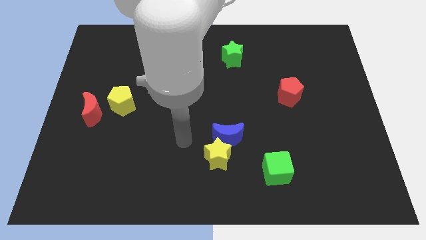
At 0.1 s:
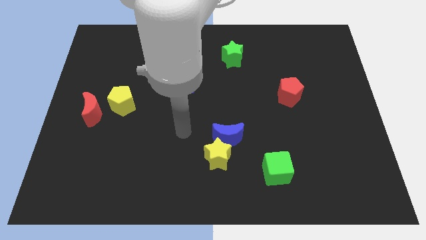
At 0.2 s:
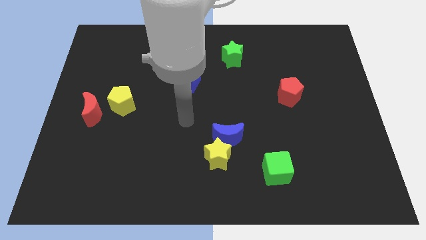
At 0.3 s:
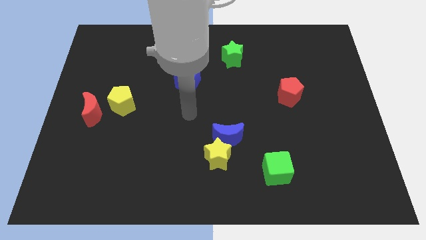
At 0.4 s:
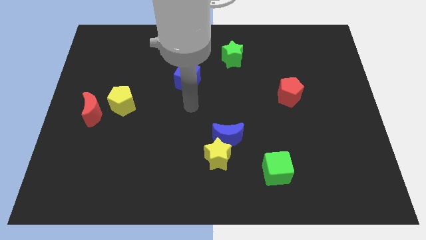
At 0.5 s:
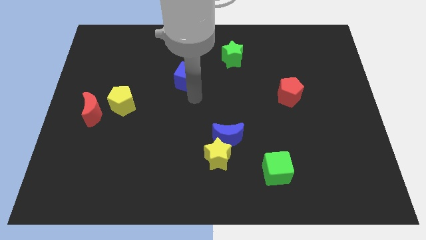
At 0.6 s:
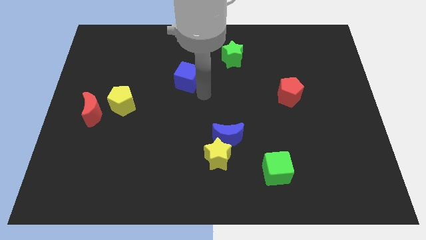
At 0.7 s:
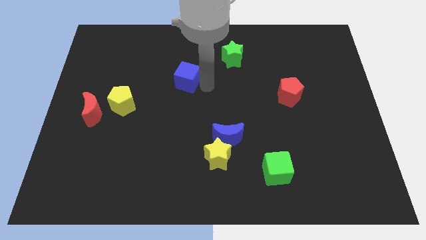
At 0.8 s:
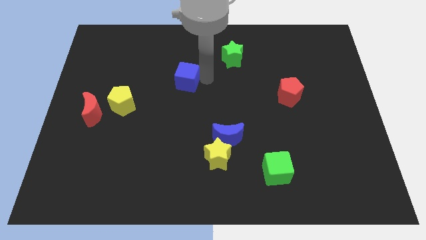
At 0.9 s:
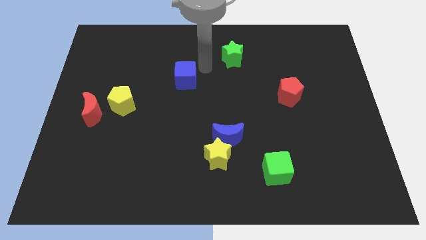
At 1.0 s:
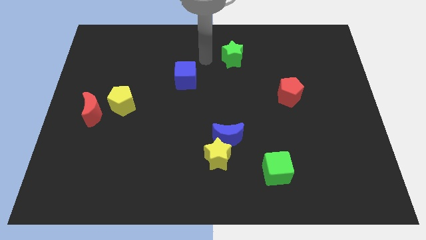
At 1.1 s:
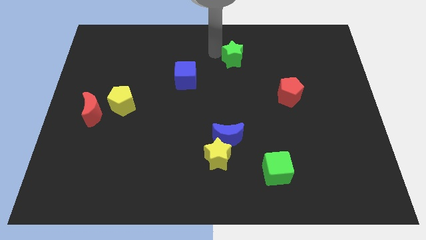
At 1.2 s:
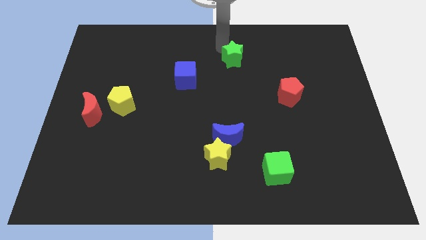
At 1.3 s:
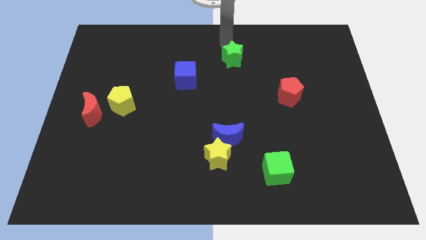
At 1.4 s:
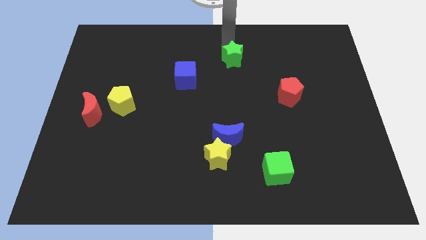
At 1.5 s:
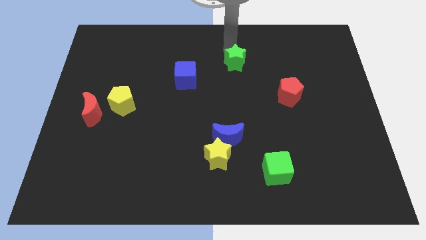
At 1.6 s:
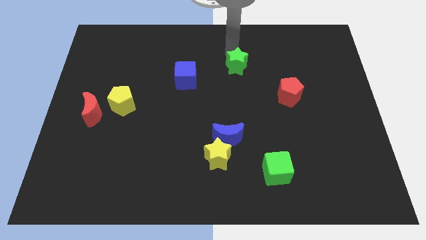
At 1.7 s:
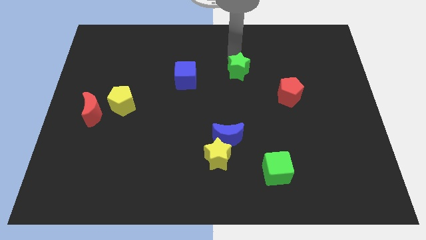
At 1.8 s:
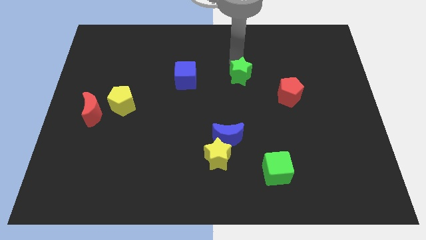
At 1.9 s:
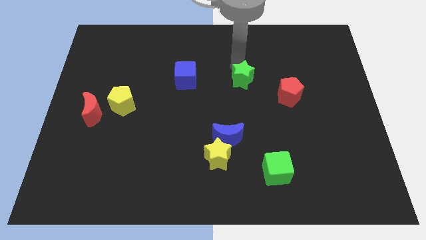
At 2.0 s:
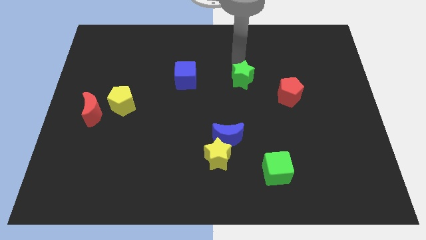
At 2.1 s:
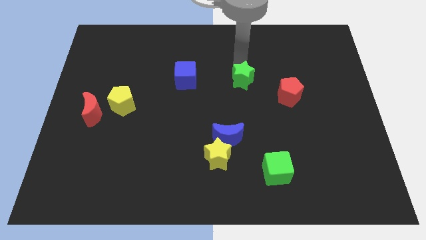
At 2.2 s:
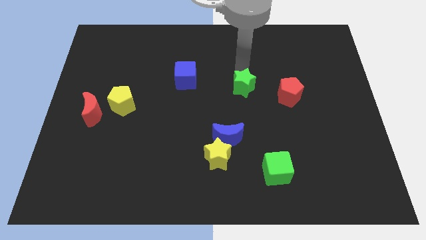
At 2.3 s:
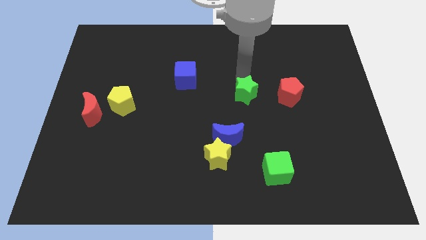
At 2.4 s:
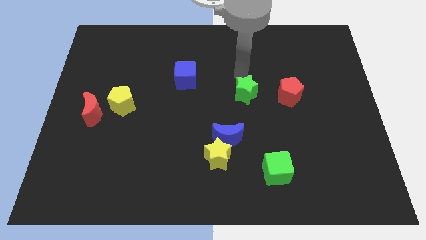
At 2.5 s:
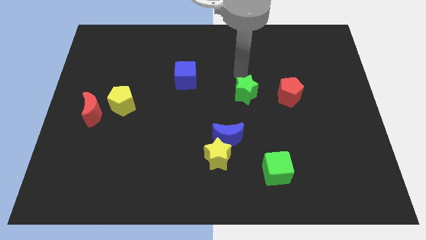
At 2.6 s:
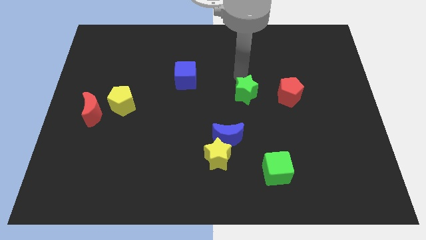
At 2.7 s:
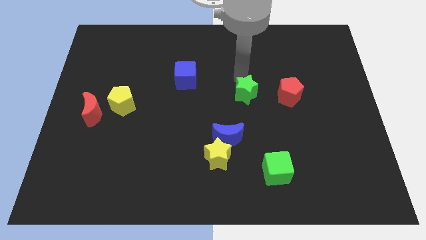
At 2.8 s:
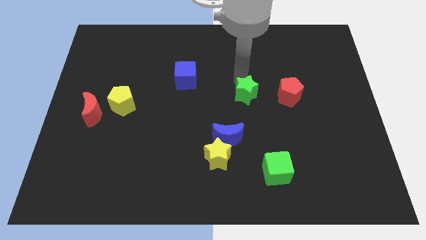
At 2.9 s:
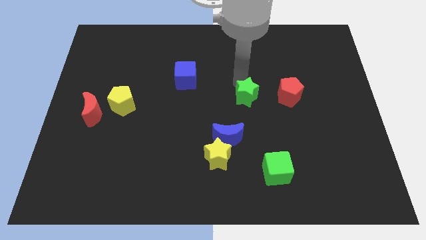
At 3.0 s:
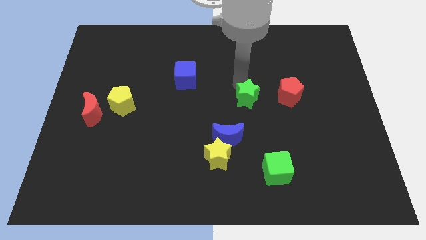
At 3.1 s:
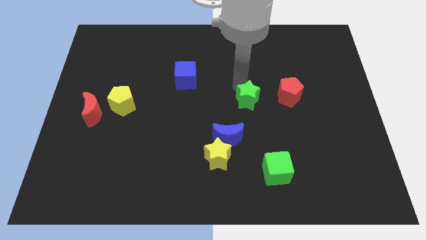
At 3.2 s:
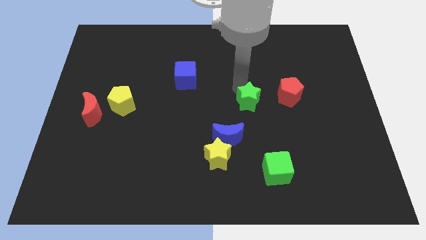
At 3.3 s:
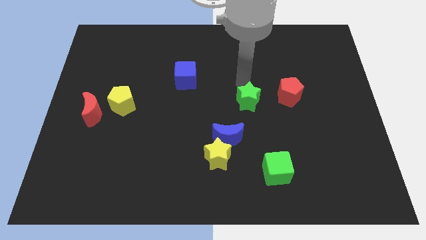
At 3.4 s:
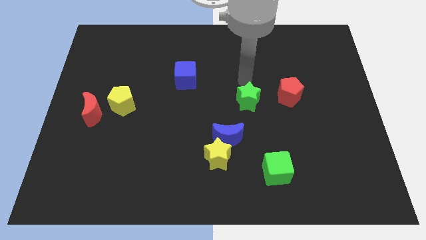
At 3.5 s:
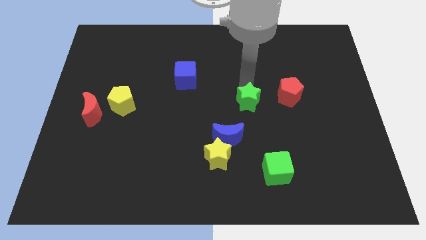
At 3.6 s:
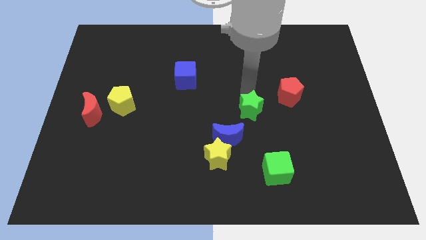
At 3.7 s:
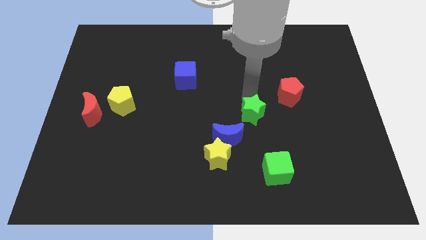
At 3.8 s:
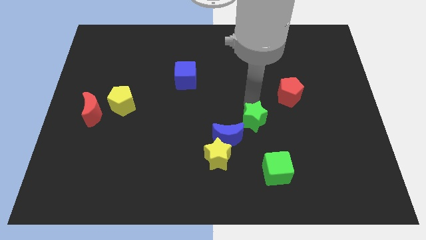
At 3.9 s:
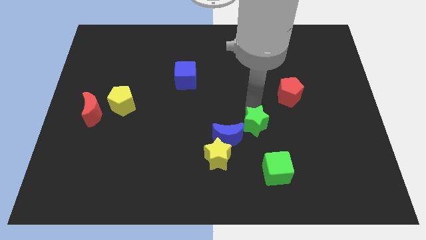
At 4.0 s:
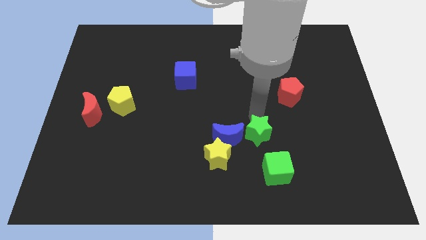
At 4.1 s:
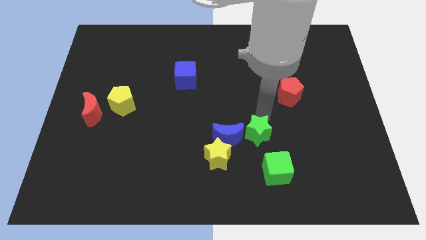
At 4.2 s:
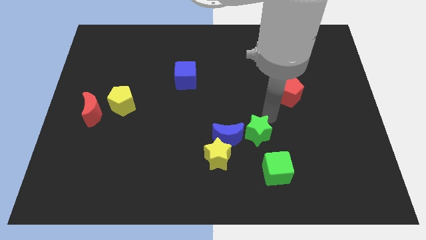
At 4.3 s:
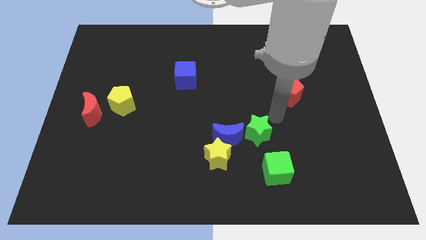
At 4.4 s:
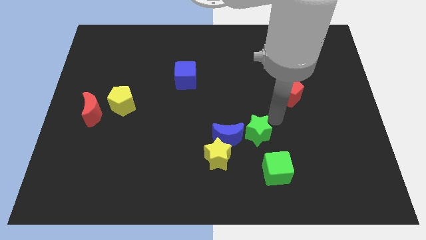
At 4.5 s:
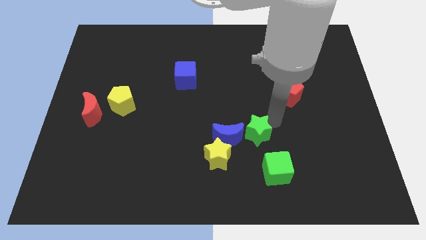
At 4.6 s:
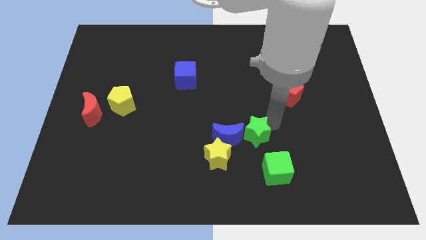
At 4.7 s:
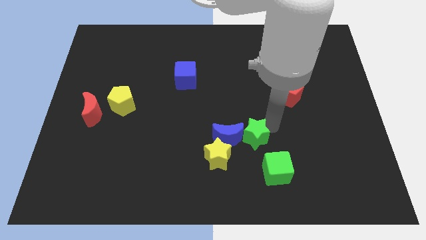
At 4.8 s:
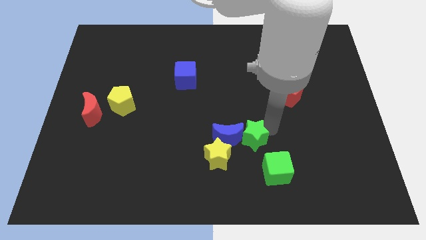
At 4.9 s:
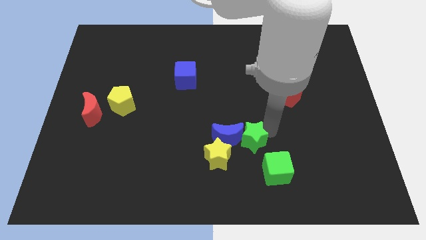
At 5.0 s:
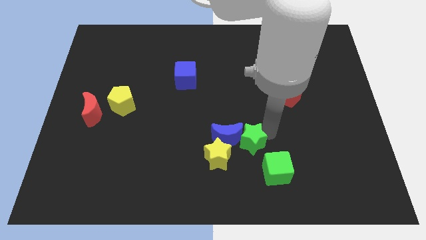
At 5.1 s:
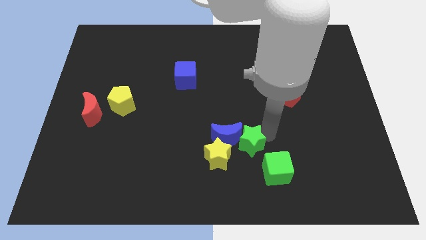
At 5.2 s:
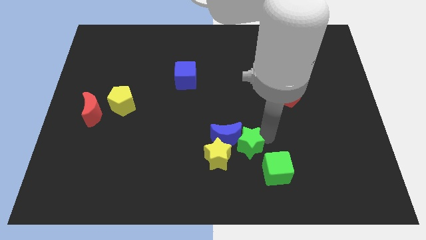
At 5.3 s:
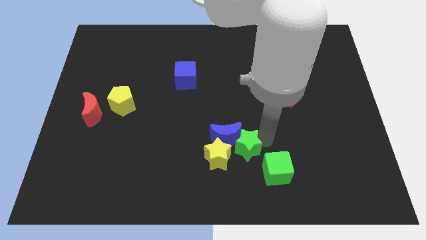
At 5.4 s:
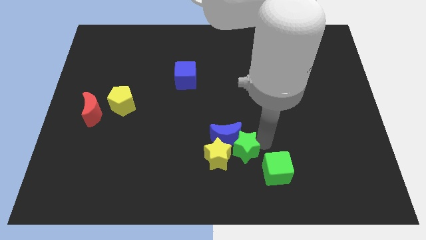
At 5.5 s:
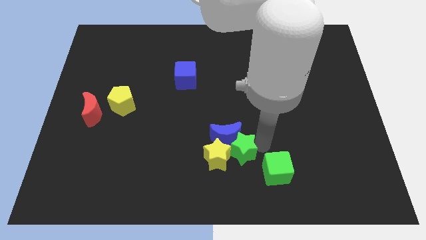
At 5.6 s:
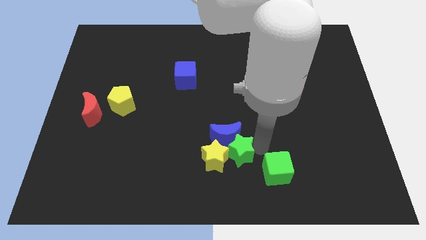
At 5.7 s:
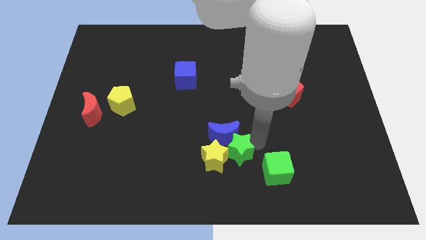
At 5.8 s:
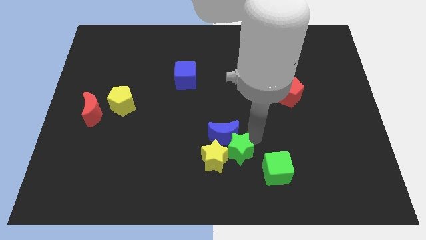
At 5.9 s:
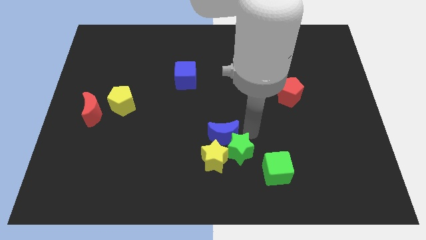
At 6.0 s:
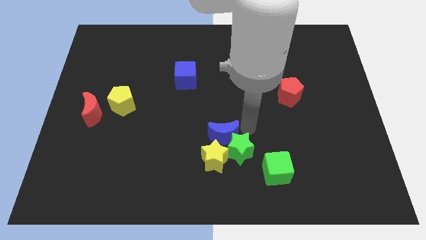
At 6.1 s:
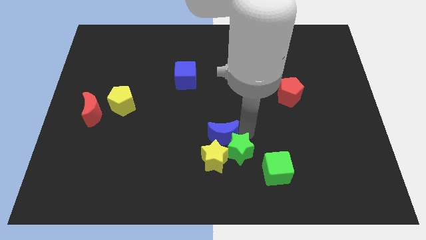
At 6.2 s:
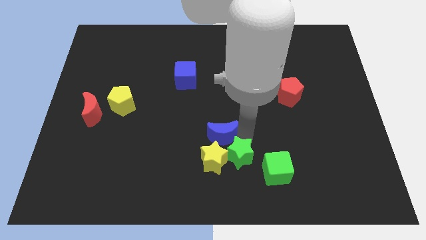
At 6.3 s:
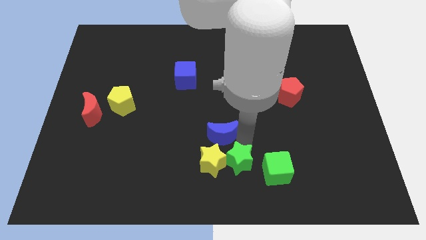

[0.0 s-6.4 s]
push the green star to the bottom
